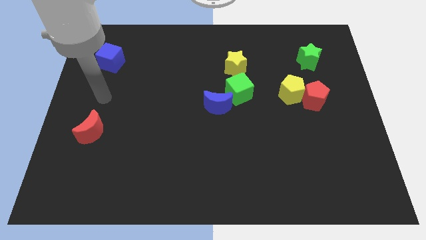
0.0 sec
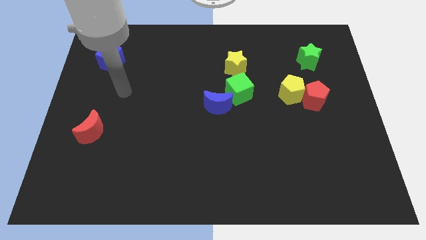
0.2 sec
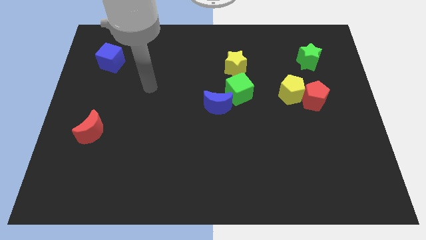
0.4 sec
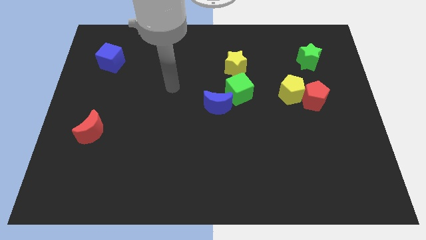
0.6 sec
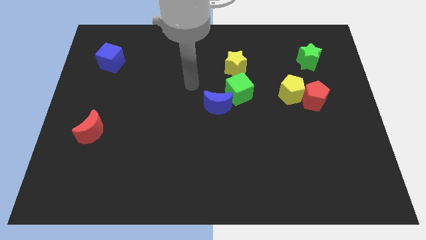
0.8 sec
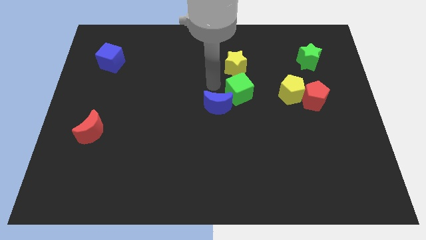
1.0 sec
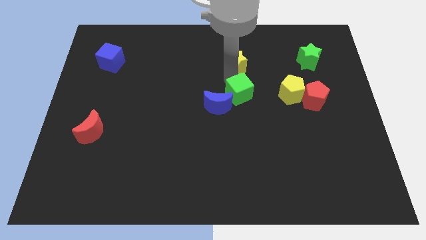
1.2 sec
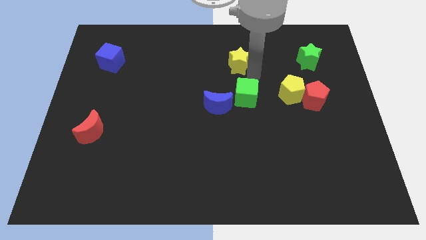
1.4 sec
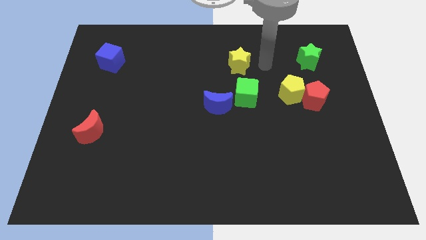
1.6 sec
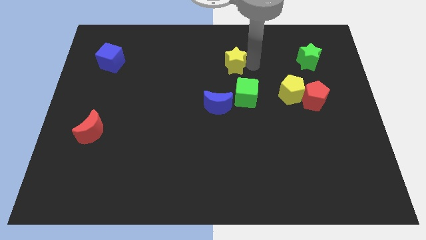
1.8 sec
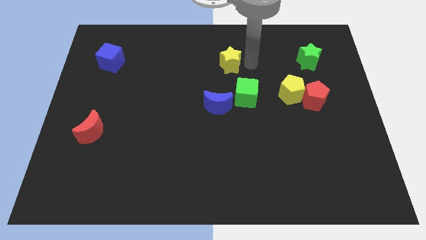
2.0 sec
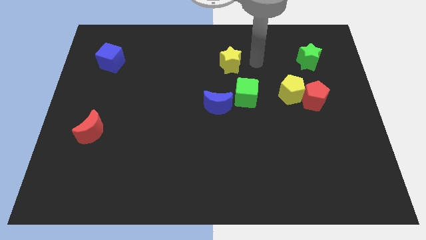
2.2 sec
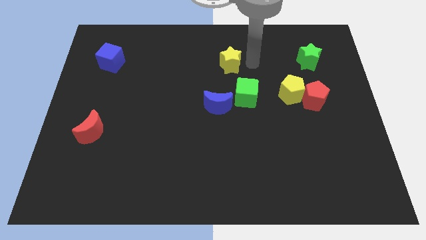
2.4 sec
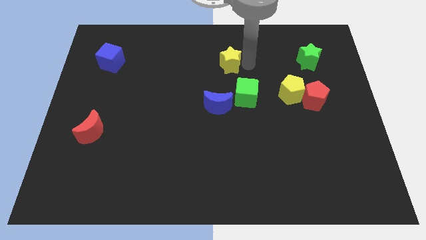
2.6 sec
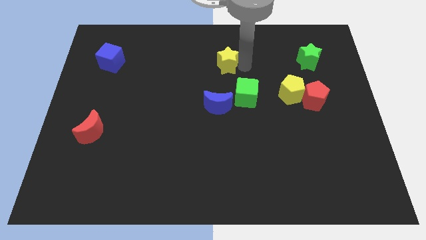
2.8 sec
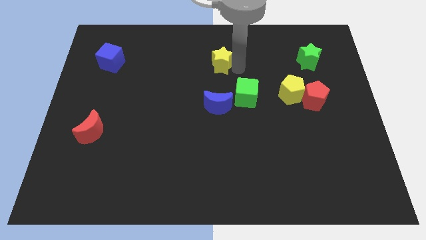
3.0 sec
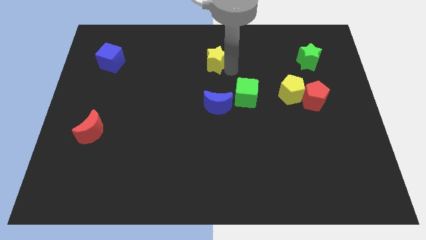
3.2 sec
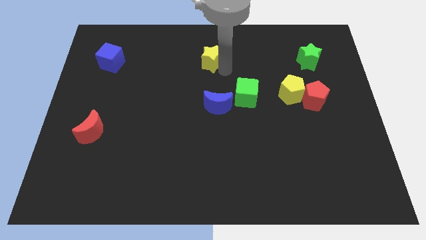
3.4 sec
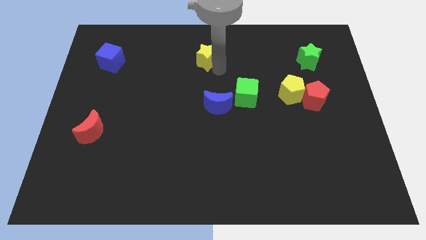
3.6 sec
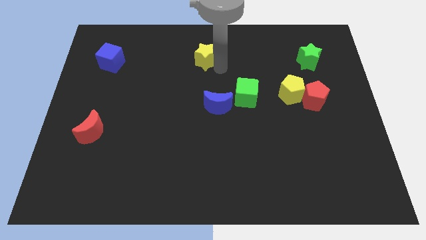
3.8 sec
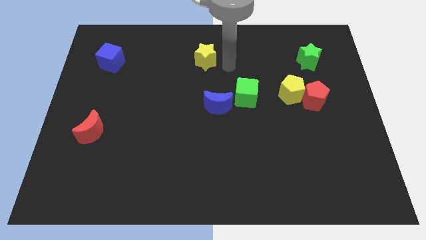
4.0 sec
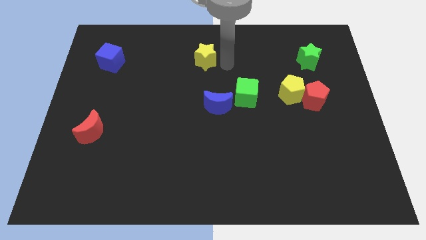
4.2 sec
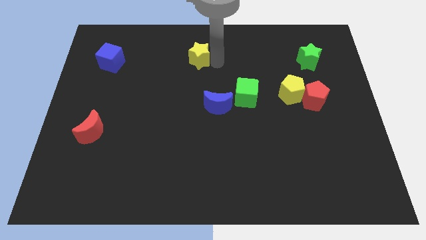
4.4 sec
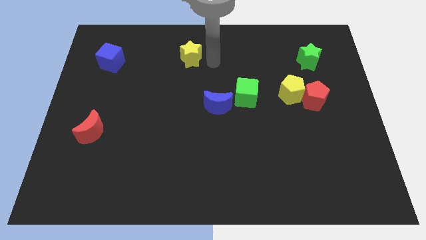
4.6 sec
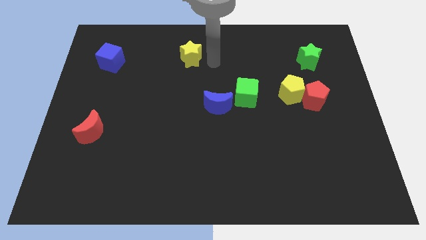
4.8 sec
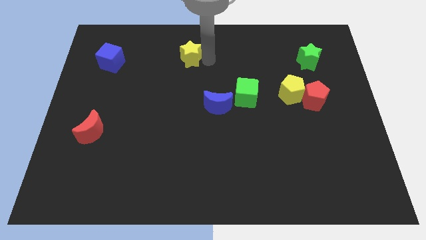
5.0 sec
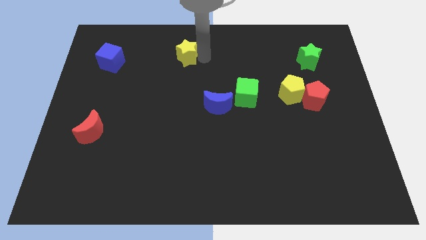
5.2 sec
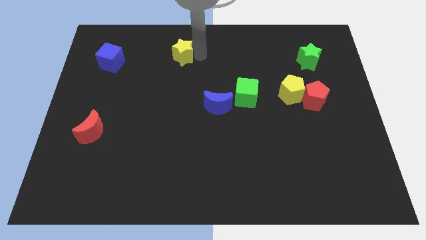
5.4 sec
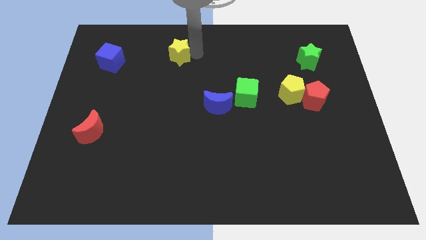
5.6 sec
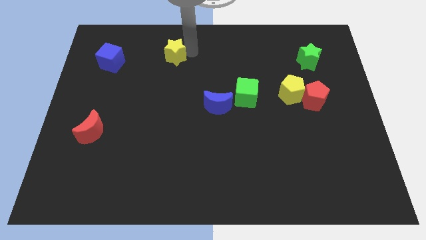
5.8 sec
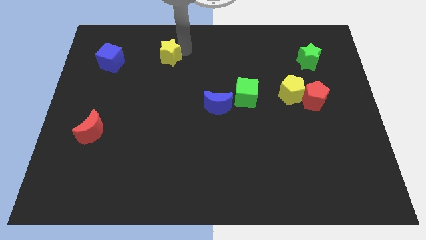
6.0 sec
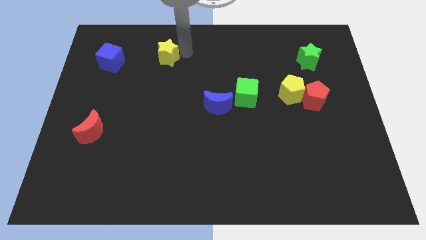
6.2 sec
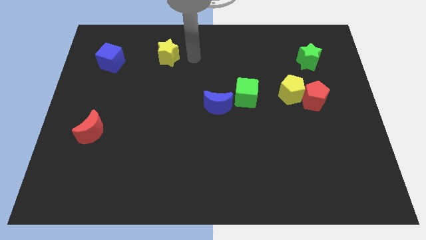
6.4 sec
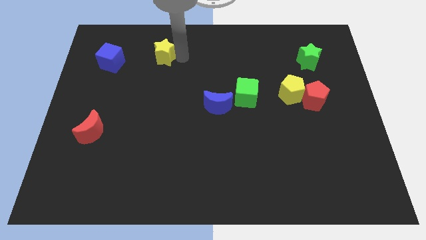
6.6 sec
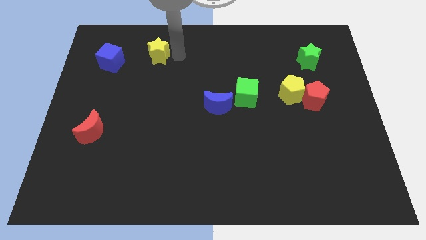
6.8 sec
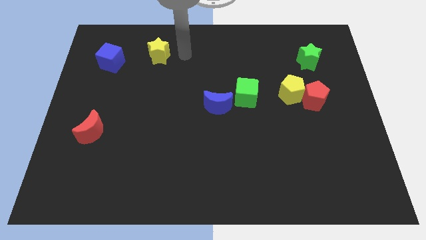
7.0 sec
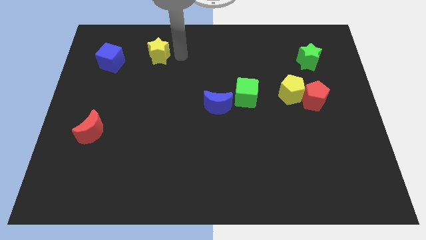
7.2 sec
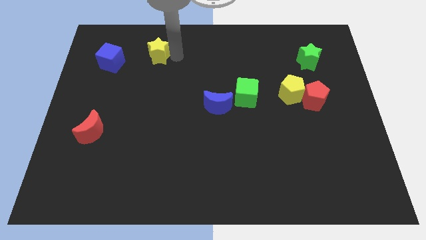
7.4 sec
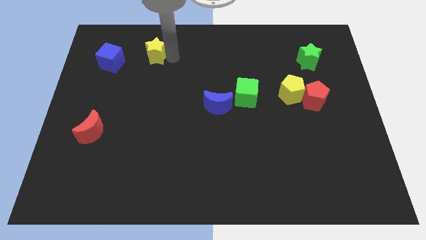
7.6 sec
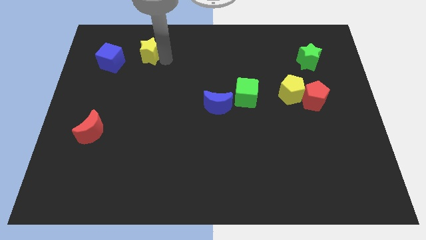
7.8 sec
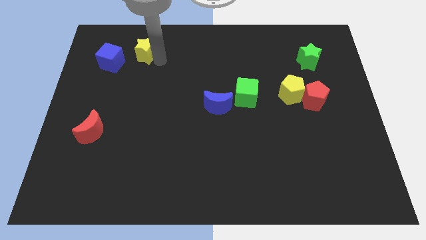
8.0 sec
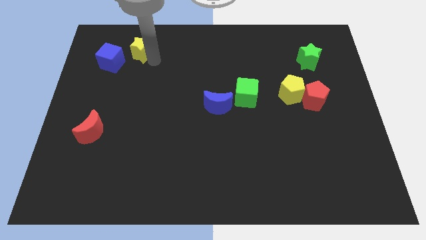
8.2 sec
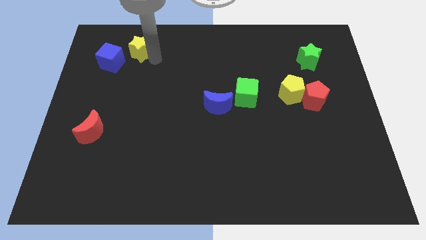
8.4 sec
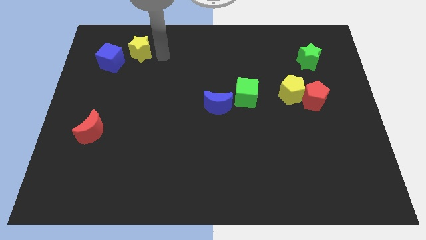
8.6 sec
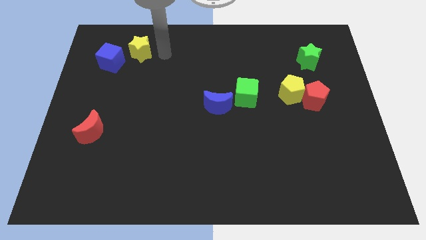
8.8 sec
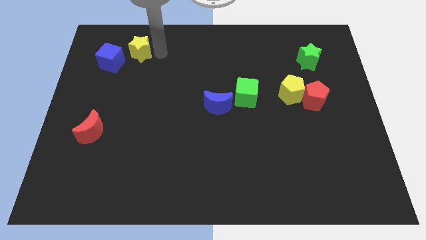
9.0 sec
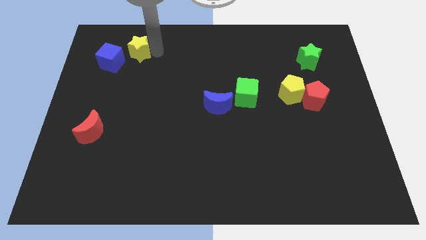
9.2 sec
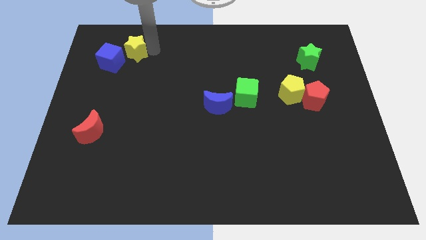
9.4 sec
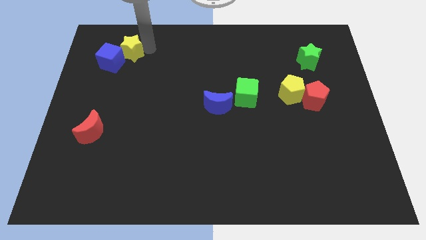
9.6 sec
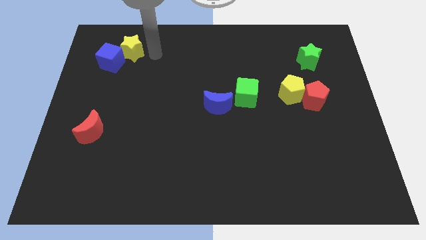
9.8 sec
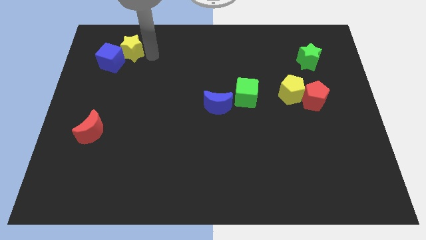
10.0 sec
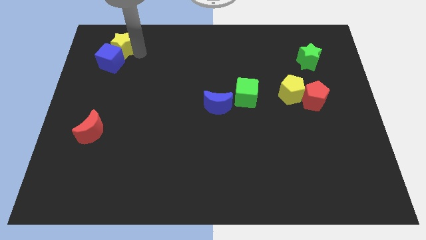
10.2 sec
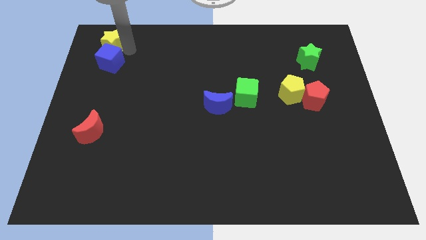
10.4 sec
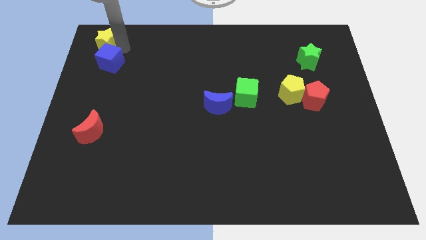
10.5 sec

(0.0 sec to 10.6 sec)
push the yellow star to the top left of the board
